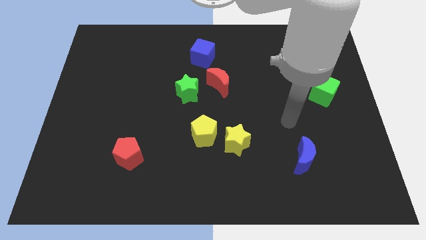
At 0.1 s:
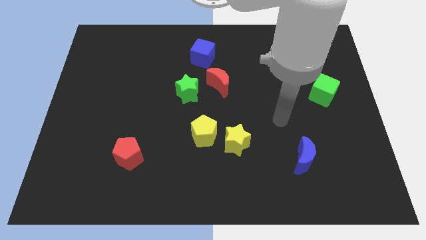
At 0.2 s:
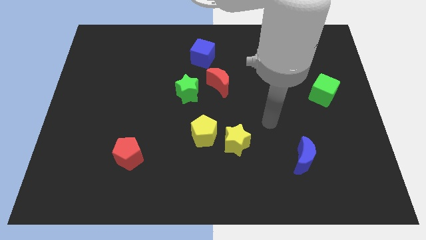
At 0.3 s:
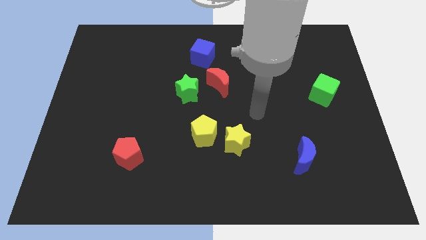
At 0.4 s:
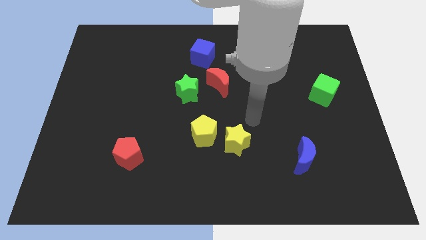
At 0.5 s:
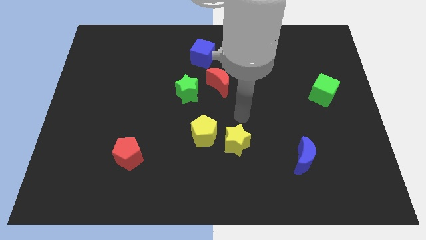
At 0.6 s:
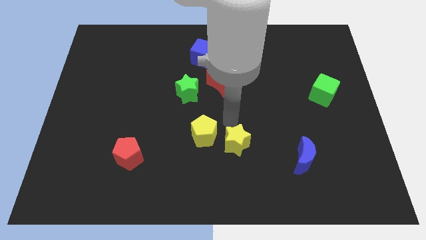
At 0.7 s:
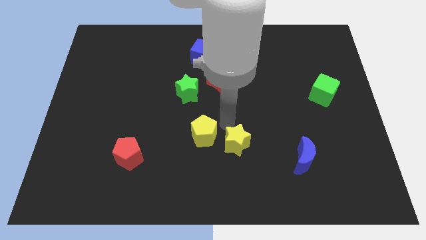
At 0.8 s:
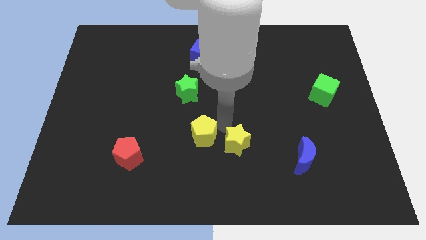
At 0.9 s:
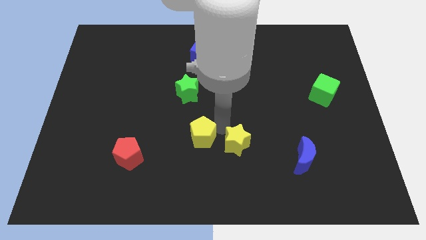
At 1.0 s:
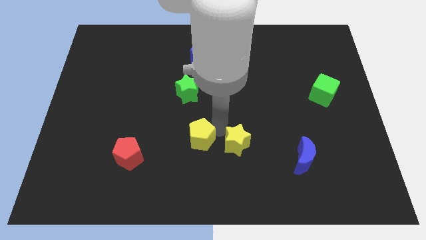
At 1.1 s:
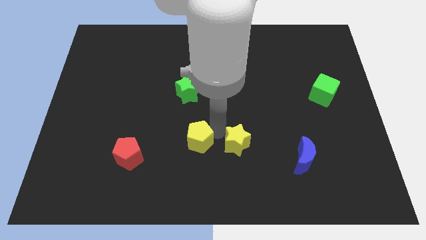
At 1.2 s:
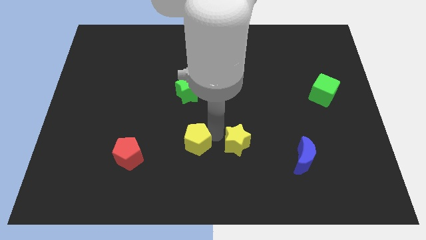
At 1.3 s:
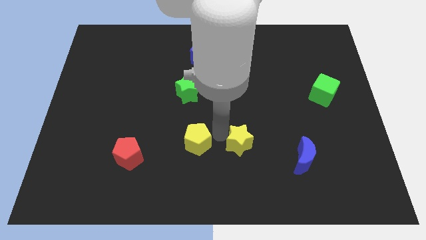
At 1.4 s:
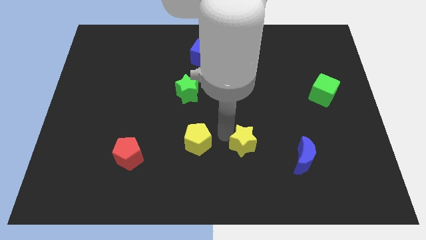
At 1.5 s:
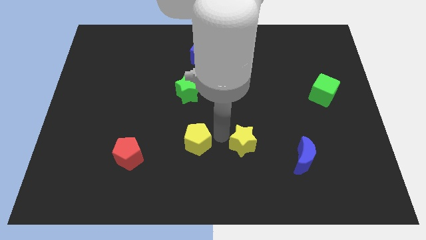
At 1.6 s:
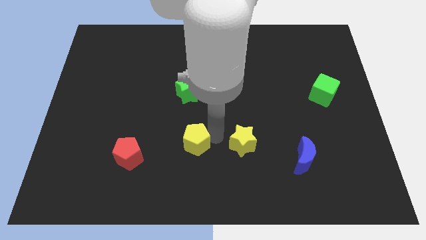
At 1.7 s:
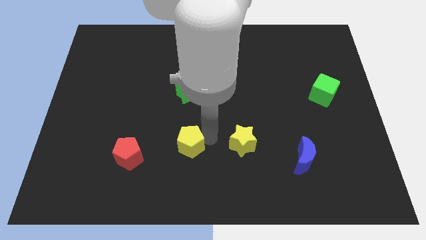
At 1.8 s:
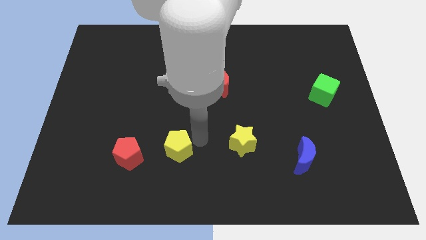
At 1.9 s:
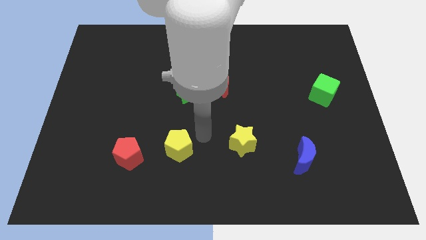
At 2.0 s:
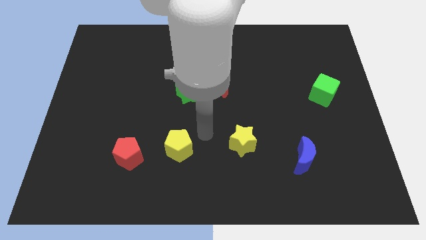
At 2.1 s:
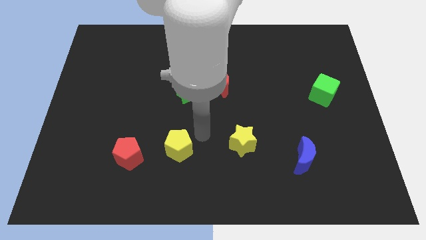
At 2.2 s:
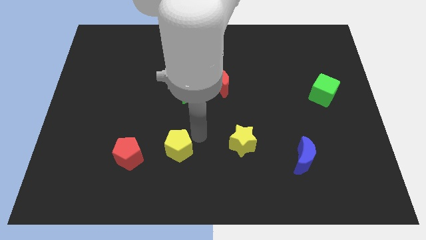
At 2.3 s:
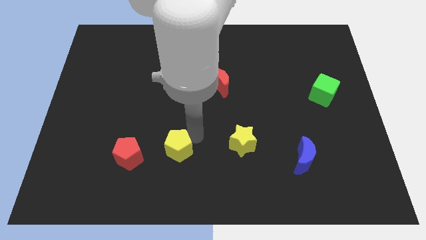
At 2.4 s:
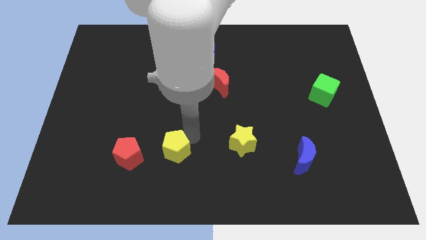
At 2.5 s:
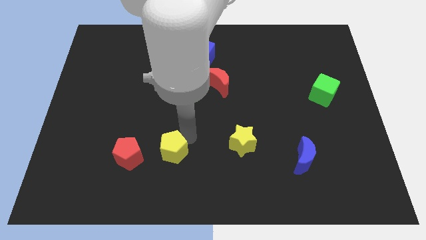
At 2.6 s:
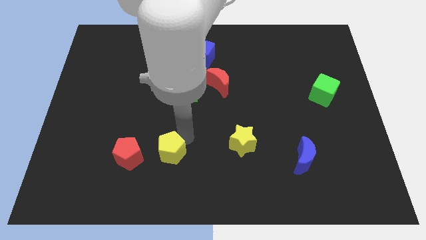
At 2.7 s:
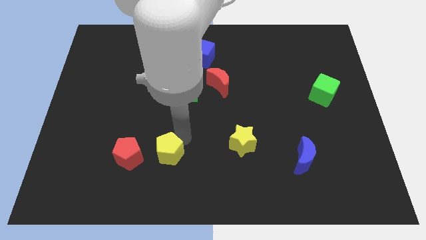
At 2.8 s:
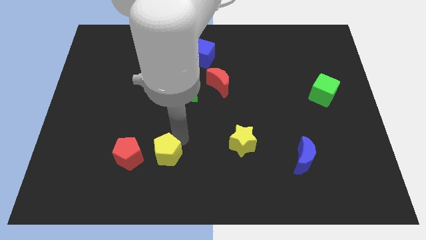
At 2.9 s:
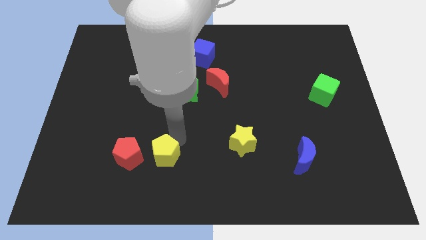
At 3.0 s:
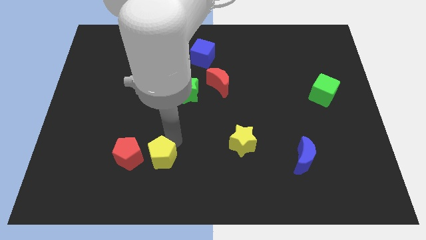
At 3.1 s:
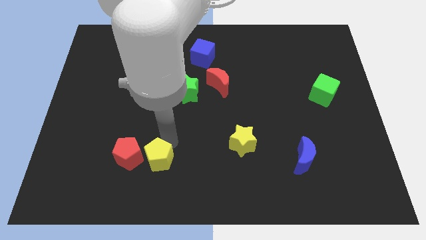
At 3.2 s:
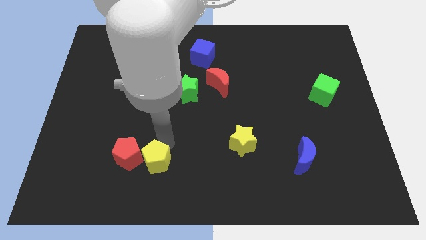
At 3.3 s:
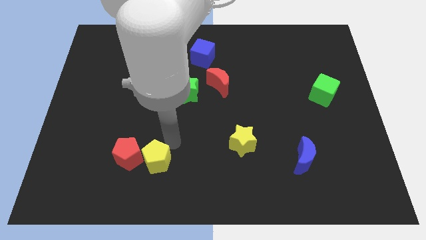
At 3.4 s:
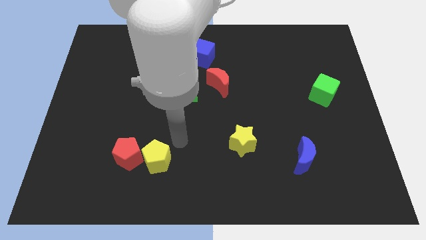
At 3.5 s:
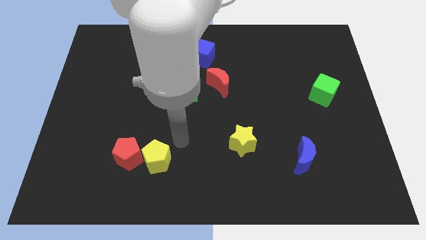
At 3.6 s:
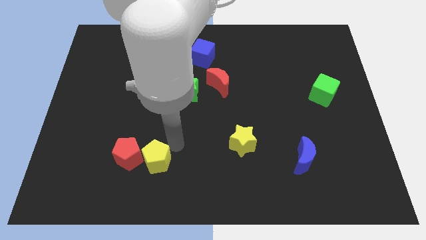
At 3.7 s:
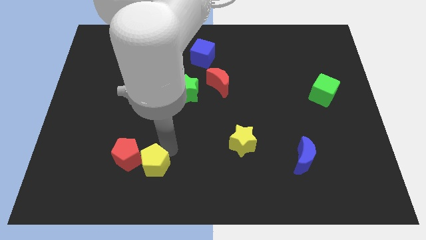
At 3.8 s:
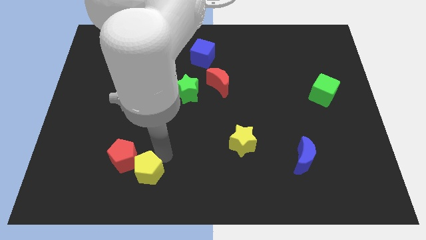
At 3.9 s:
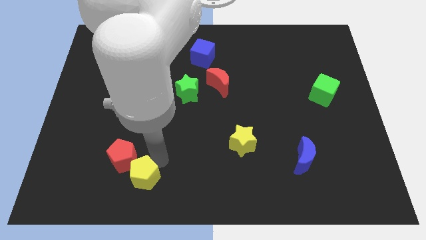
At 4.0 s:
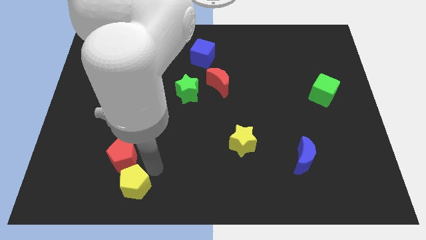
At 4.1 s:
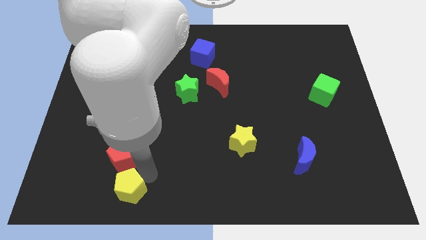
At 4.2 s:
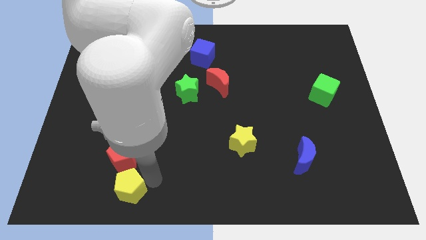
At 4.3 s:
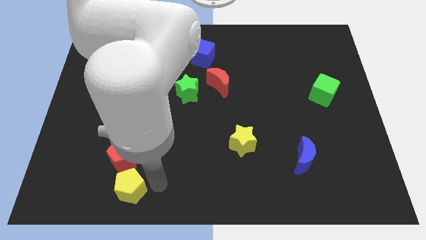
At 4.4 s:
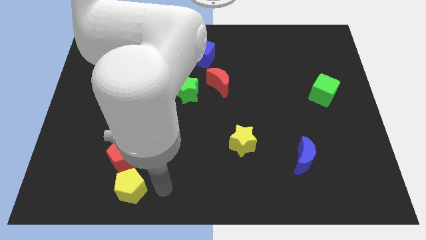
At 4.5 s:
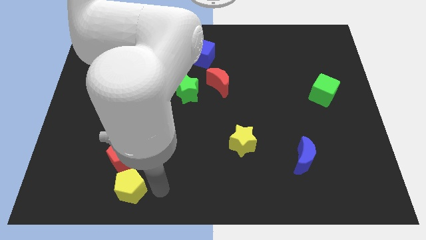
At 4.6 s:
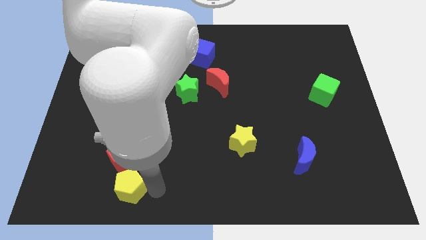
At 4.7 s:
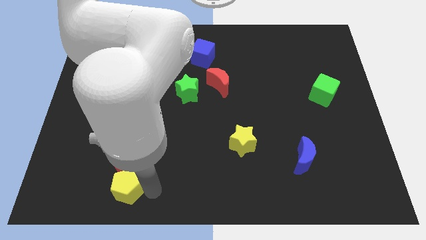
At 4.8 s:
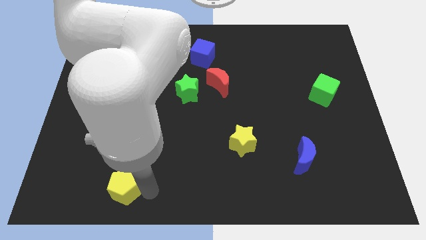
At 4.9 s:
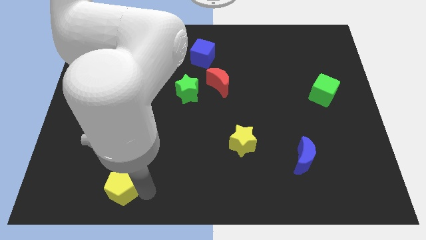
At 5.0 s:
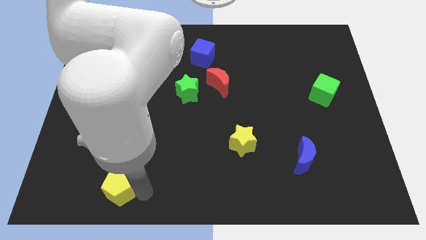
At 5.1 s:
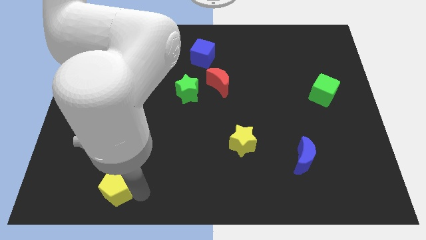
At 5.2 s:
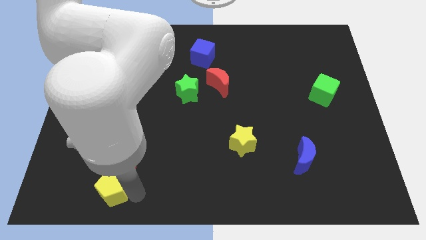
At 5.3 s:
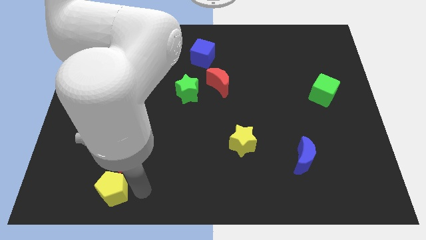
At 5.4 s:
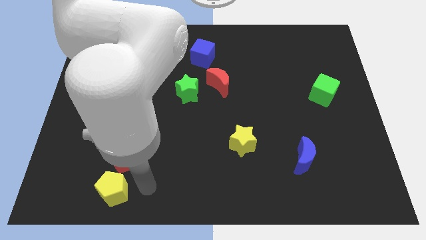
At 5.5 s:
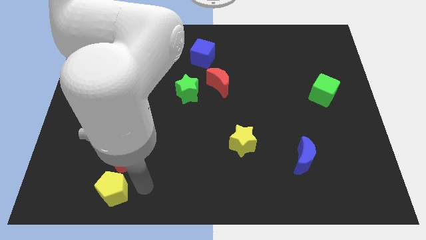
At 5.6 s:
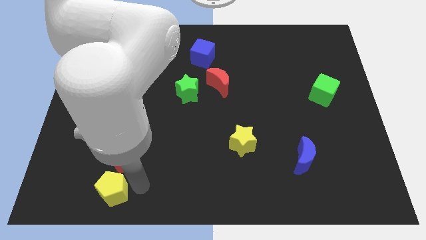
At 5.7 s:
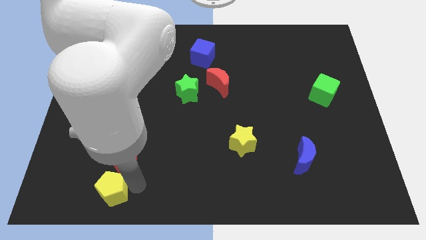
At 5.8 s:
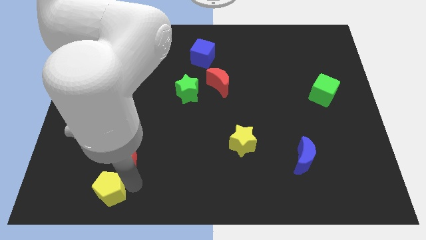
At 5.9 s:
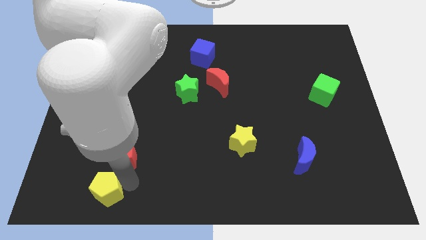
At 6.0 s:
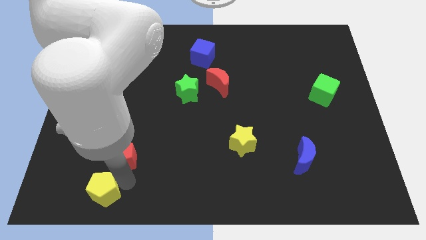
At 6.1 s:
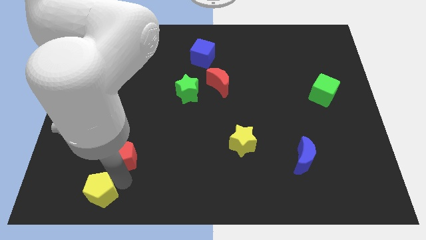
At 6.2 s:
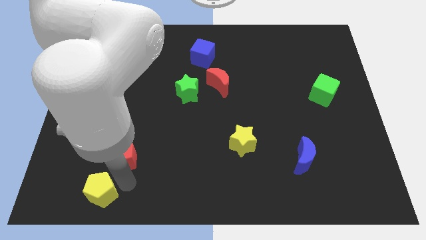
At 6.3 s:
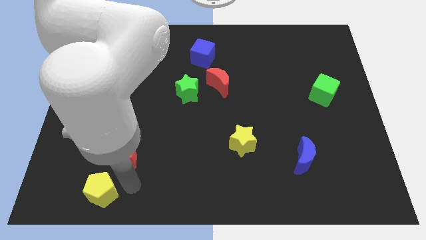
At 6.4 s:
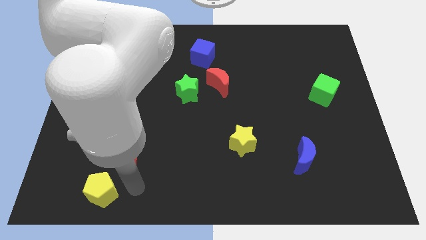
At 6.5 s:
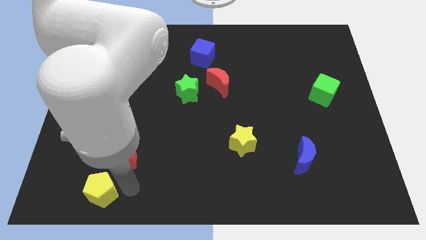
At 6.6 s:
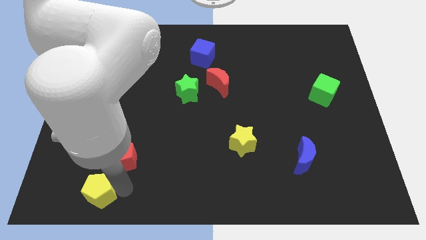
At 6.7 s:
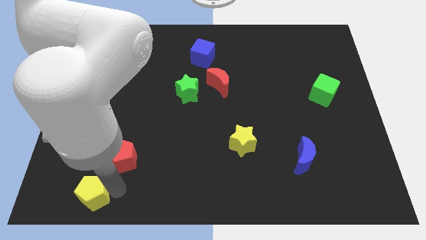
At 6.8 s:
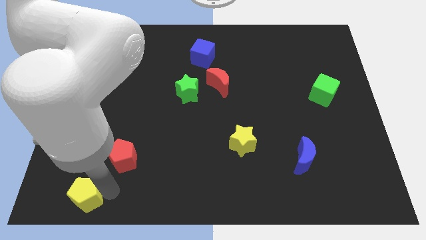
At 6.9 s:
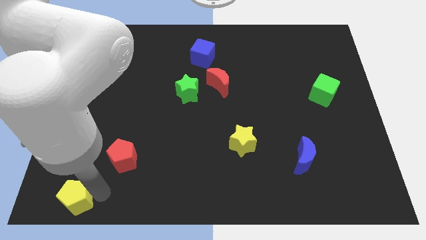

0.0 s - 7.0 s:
slide the yellow pentagon to the bottom left
